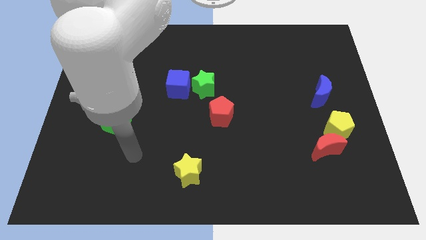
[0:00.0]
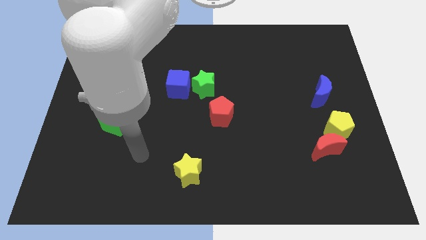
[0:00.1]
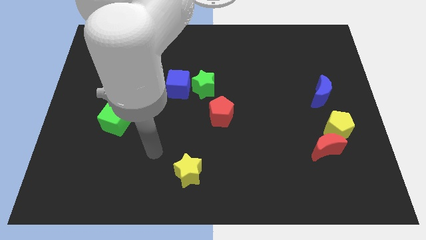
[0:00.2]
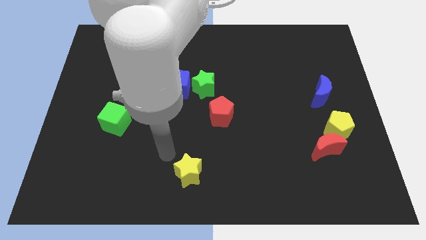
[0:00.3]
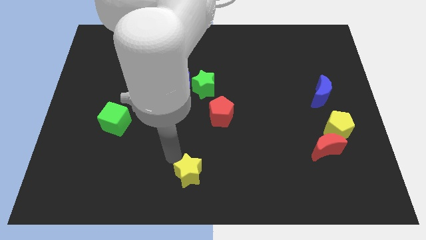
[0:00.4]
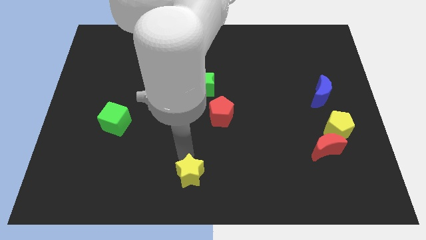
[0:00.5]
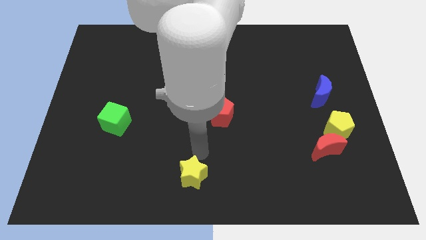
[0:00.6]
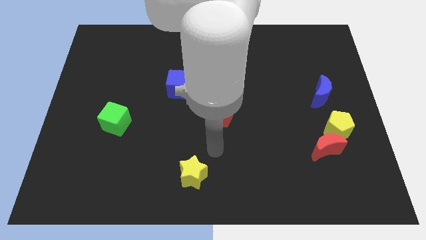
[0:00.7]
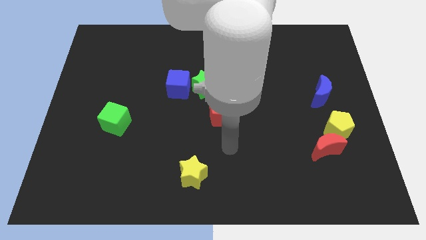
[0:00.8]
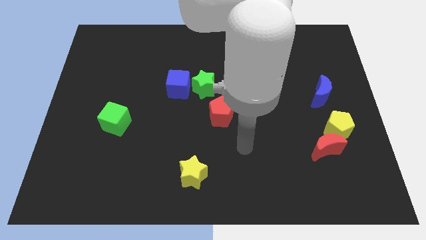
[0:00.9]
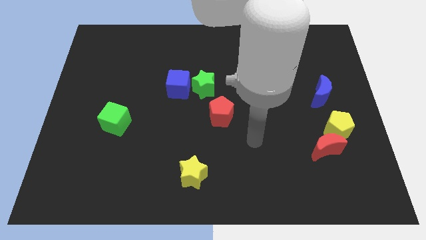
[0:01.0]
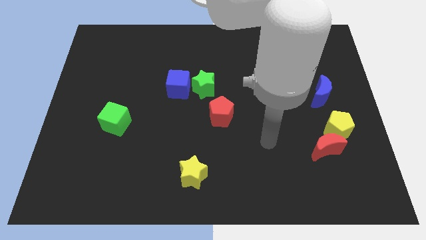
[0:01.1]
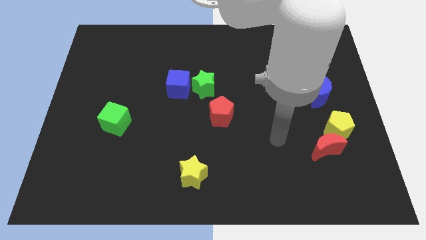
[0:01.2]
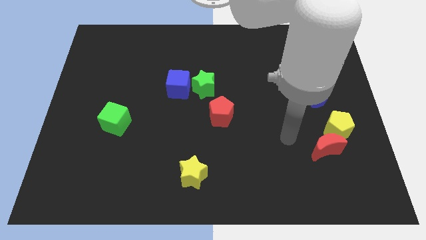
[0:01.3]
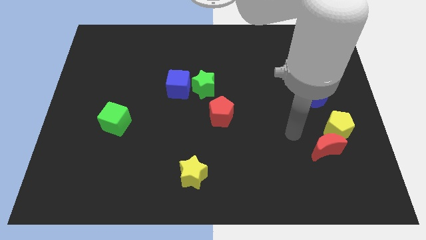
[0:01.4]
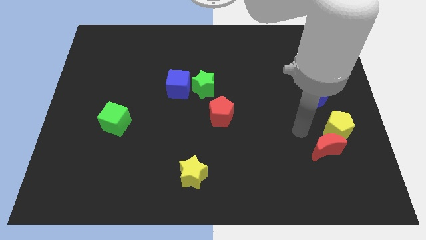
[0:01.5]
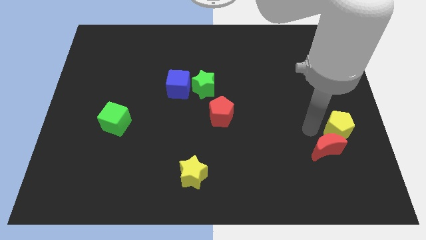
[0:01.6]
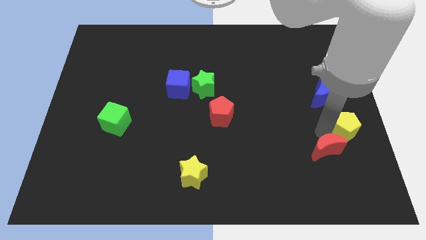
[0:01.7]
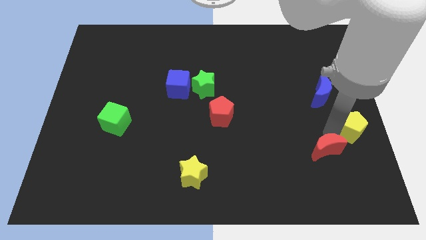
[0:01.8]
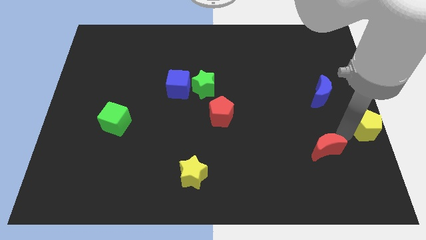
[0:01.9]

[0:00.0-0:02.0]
pull the red moon apart from the yellow pentagon

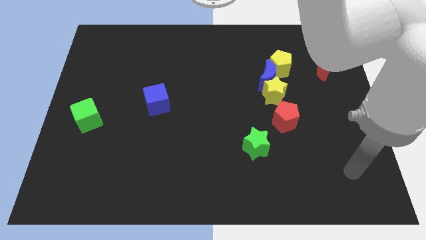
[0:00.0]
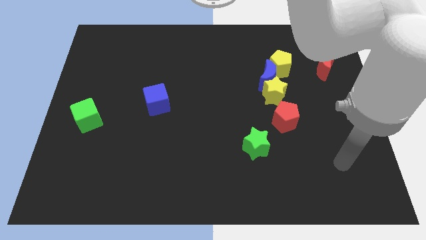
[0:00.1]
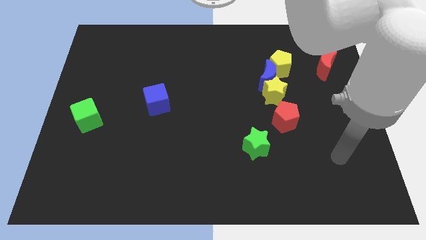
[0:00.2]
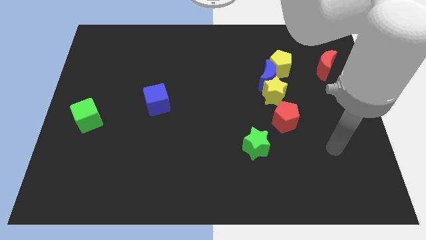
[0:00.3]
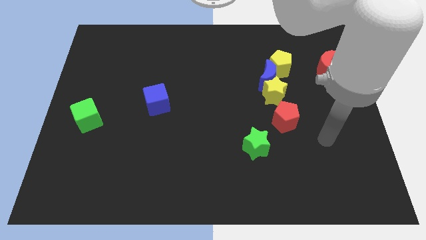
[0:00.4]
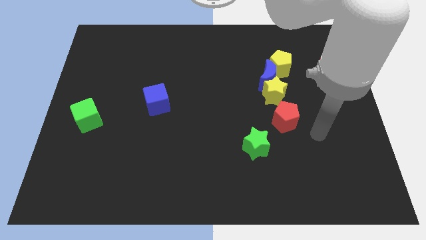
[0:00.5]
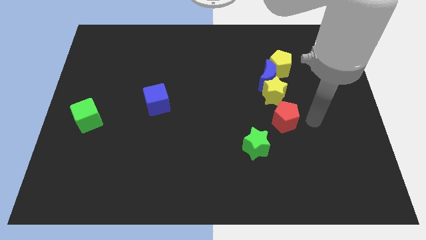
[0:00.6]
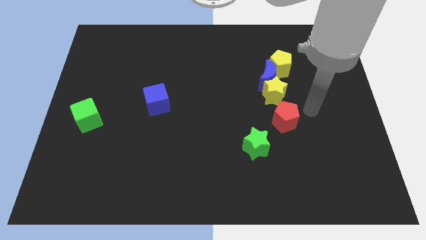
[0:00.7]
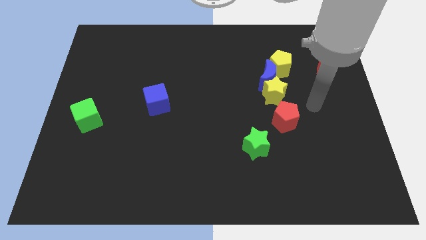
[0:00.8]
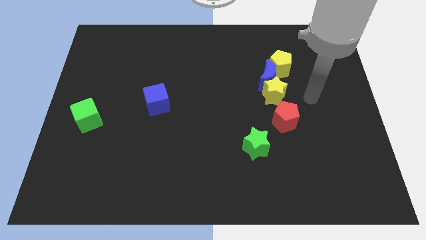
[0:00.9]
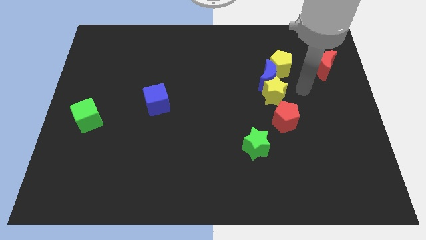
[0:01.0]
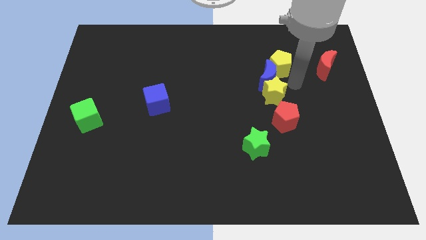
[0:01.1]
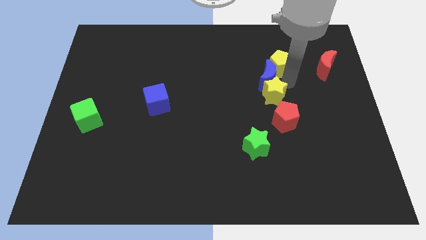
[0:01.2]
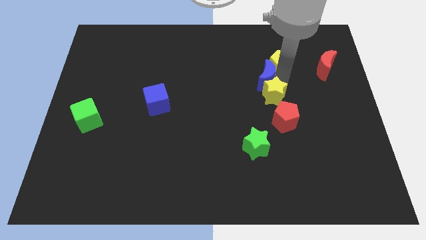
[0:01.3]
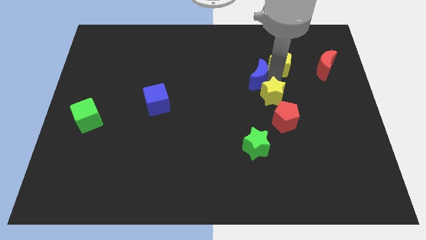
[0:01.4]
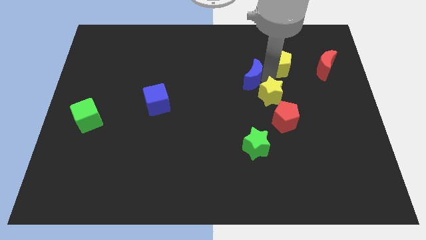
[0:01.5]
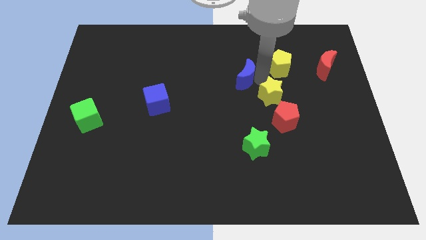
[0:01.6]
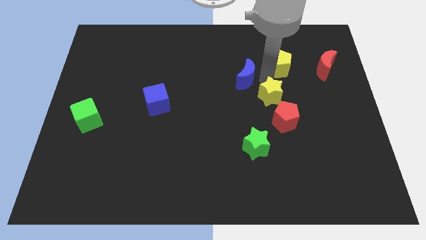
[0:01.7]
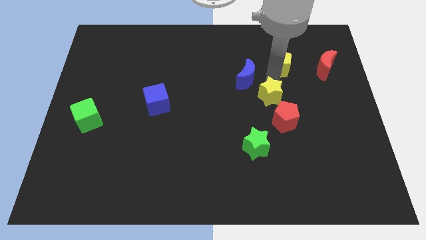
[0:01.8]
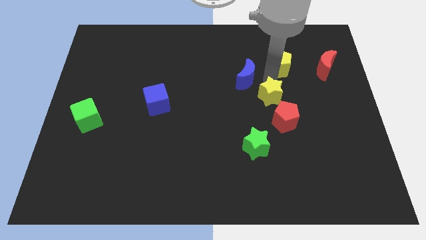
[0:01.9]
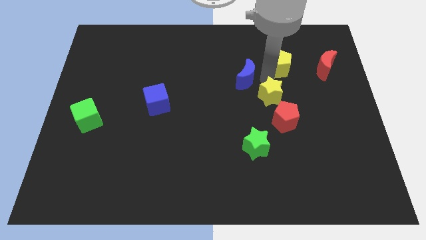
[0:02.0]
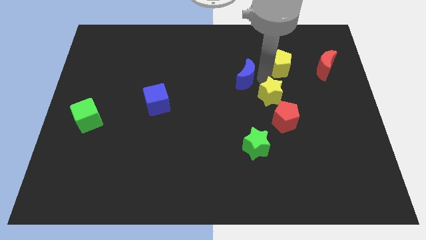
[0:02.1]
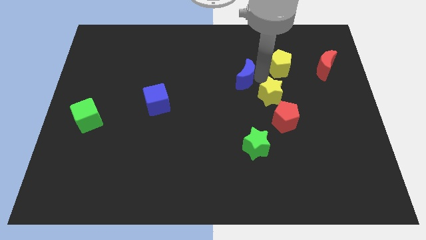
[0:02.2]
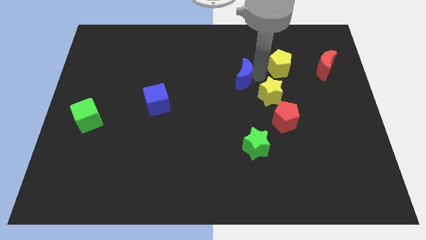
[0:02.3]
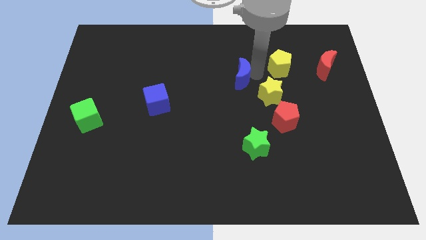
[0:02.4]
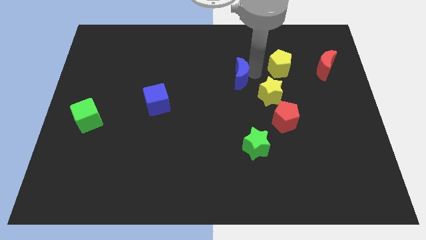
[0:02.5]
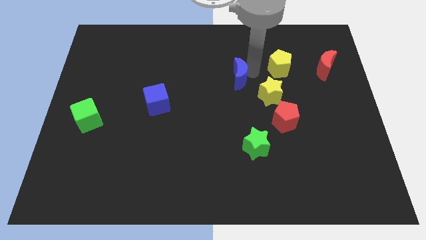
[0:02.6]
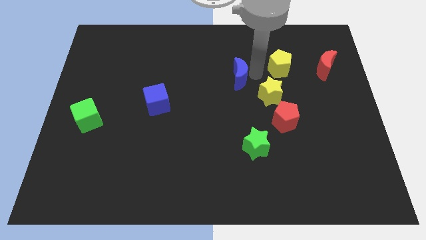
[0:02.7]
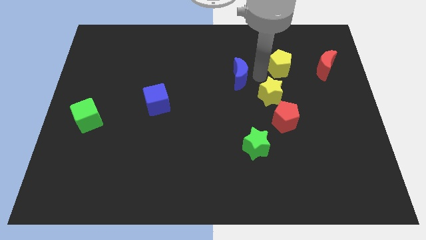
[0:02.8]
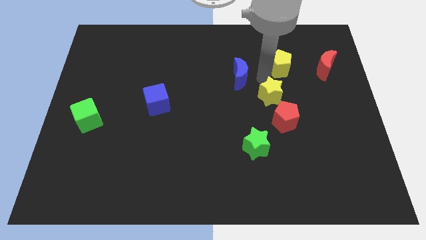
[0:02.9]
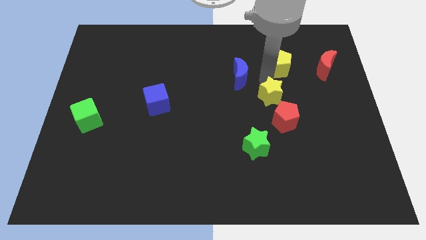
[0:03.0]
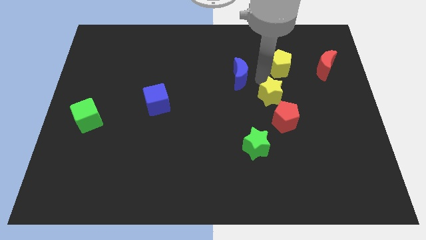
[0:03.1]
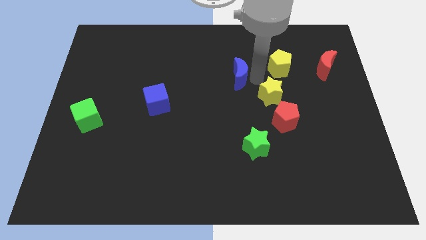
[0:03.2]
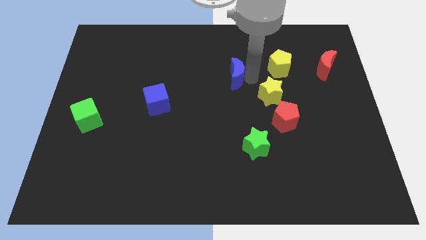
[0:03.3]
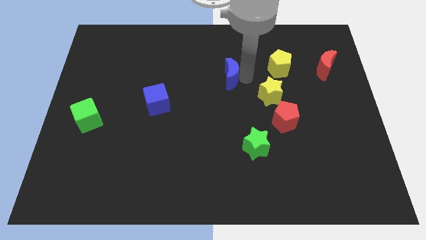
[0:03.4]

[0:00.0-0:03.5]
pull the blue moon apart from the yellow star and yellow pentagon

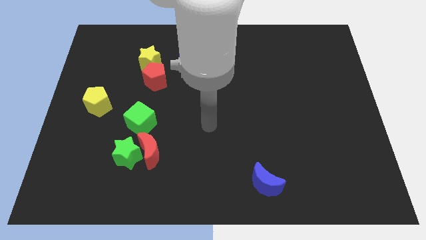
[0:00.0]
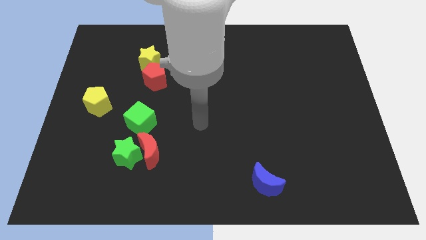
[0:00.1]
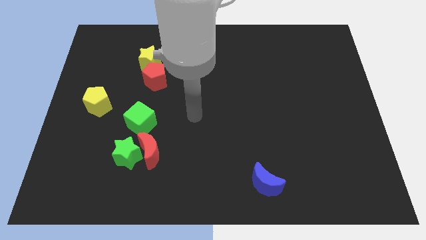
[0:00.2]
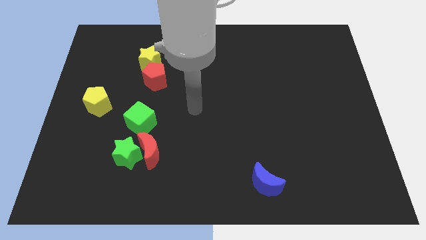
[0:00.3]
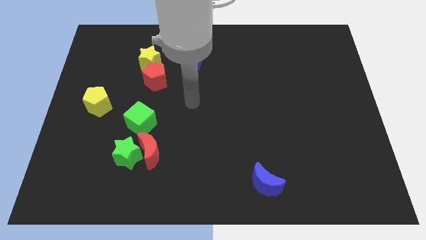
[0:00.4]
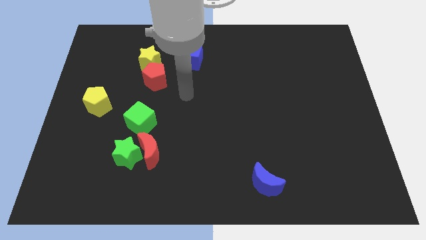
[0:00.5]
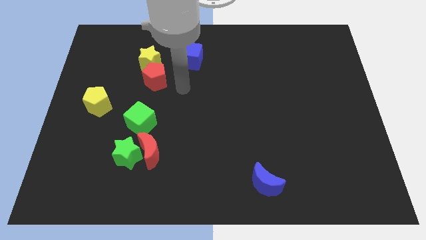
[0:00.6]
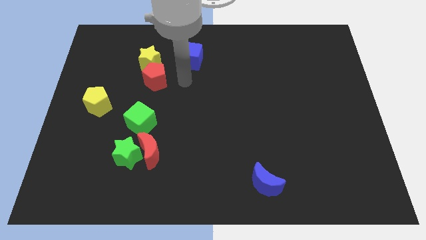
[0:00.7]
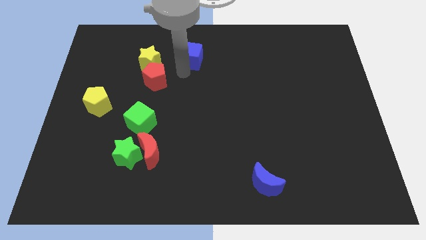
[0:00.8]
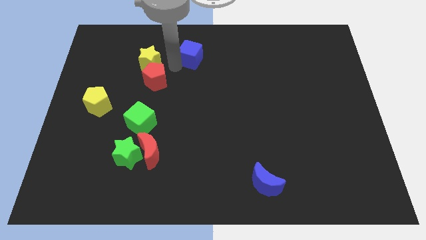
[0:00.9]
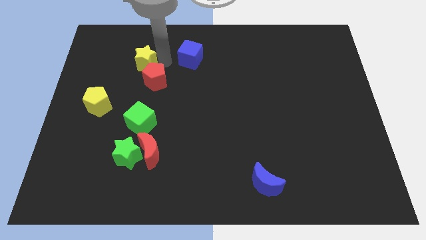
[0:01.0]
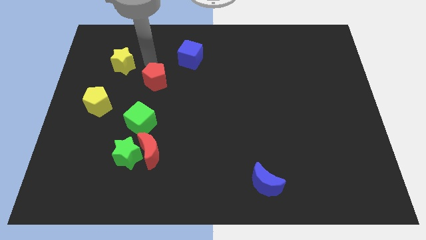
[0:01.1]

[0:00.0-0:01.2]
pull the red pentagon apart from the yellow star

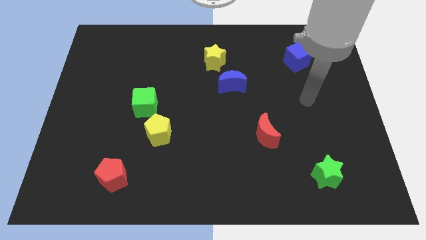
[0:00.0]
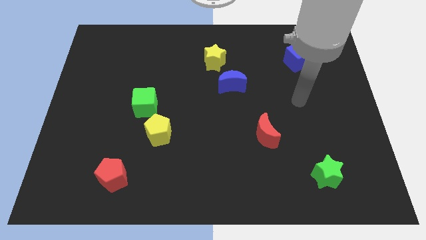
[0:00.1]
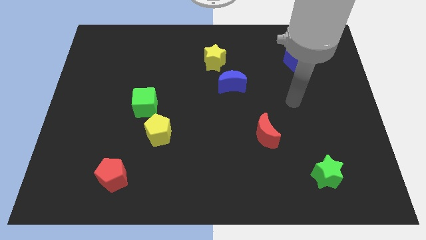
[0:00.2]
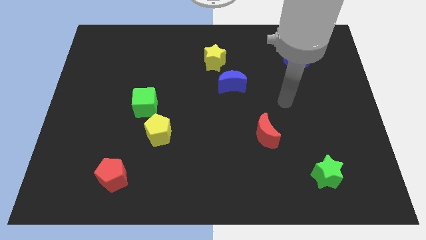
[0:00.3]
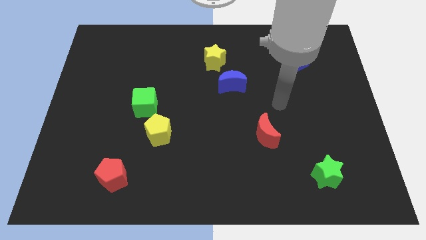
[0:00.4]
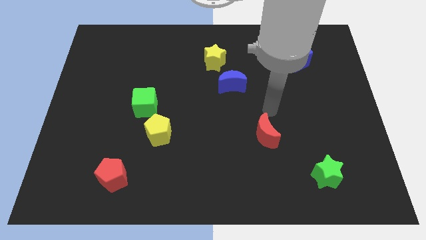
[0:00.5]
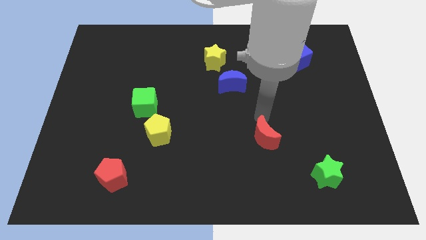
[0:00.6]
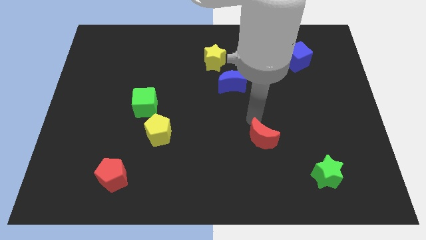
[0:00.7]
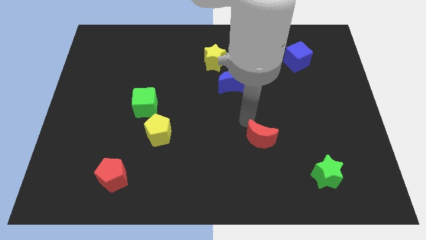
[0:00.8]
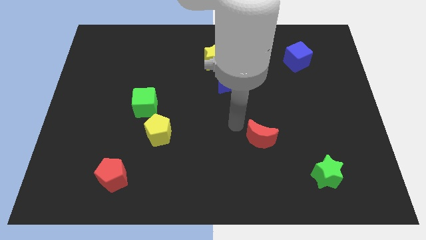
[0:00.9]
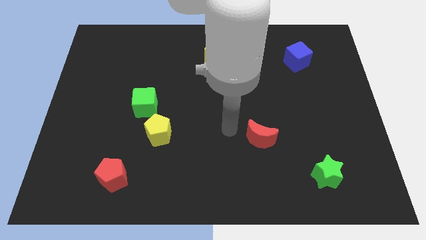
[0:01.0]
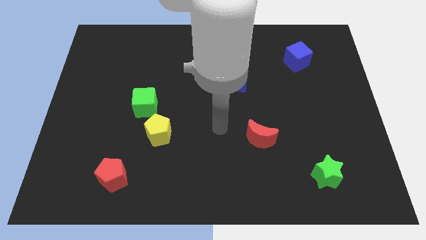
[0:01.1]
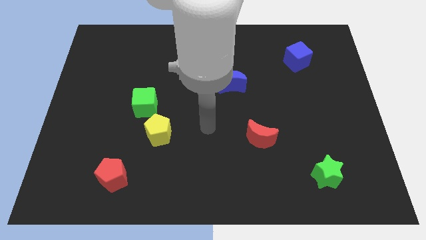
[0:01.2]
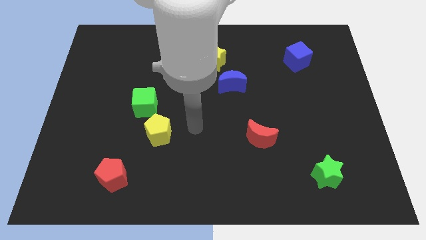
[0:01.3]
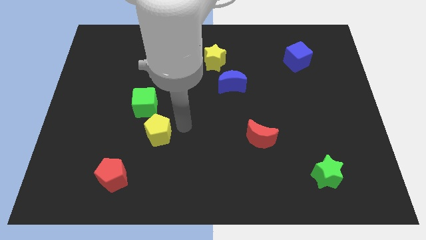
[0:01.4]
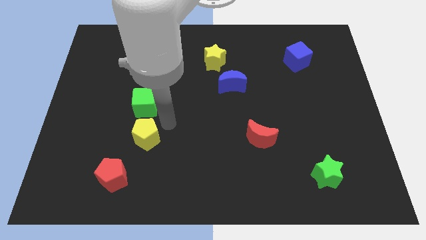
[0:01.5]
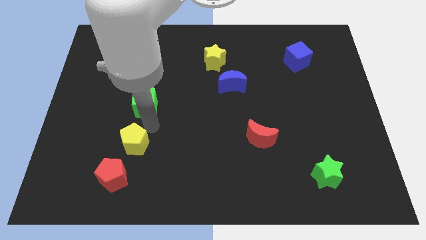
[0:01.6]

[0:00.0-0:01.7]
separate the green cube from the yellow pentagon

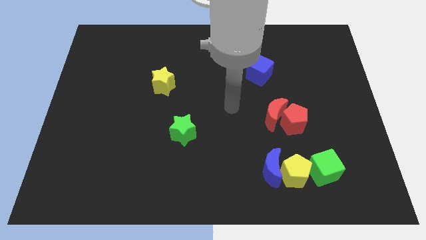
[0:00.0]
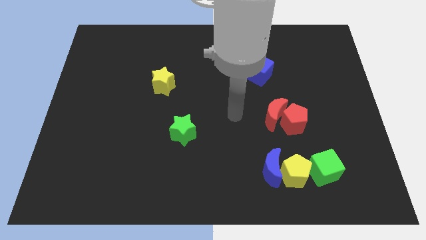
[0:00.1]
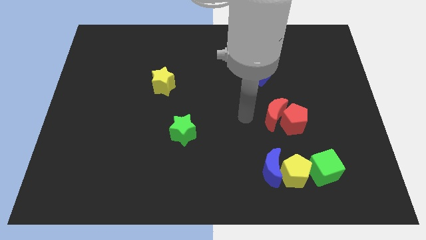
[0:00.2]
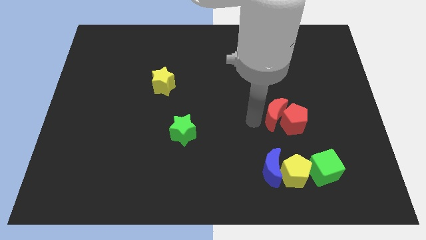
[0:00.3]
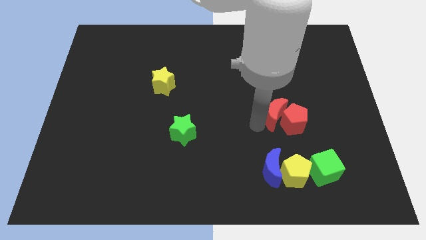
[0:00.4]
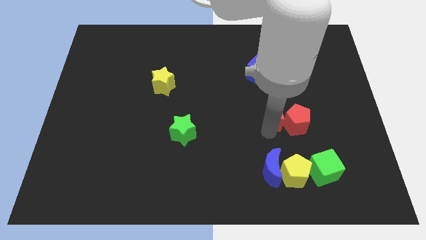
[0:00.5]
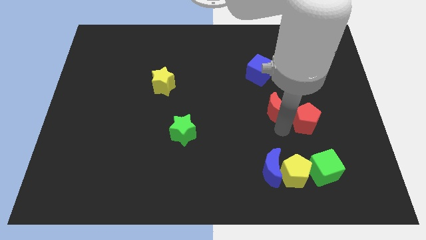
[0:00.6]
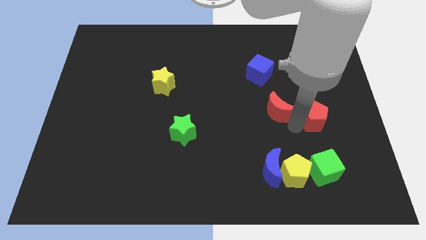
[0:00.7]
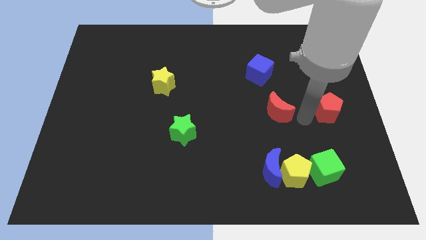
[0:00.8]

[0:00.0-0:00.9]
pull the red moon apart from the red pentagon
